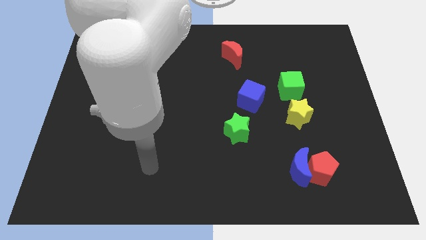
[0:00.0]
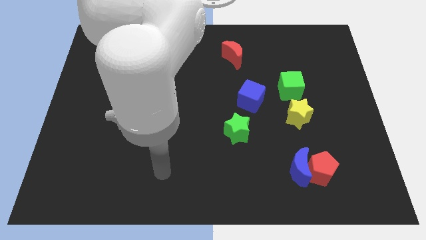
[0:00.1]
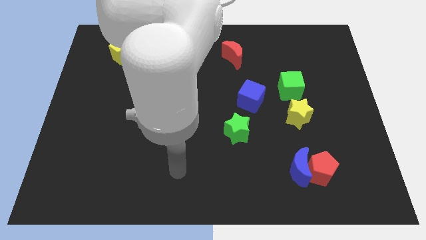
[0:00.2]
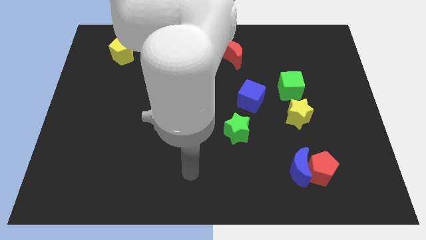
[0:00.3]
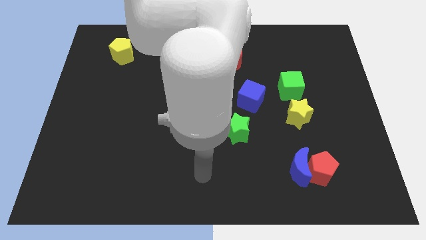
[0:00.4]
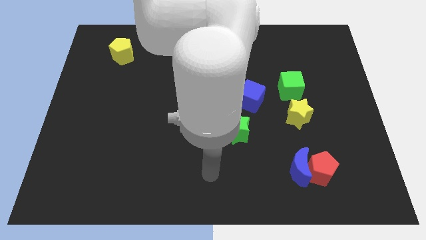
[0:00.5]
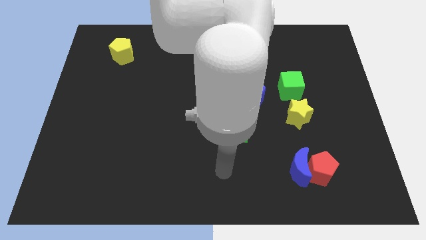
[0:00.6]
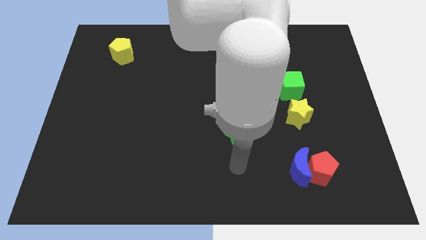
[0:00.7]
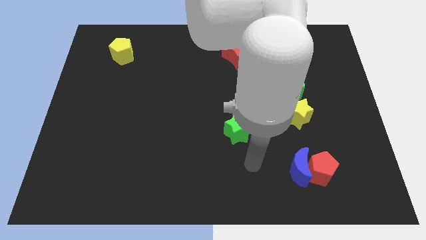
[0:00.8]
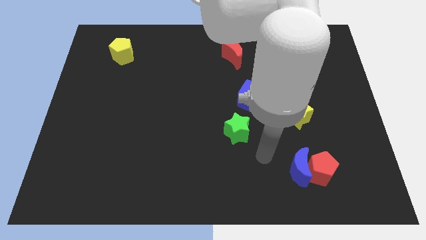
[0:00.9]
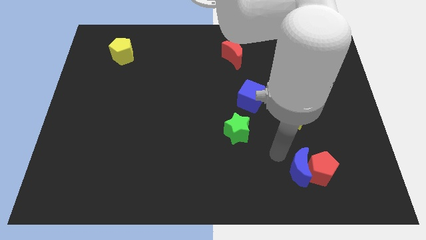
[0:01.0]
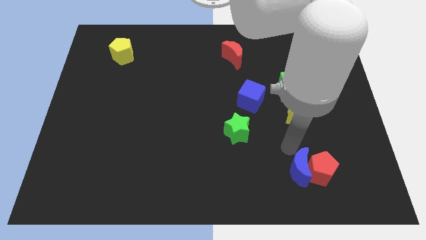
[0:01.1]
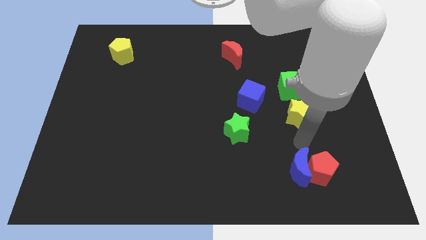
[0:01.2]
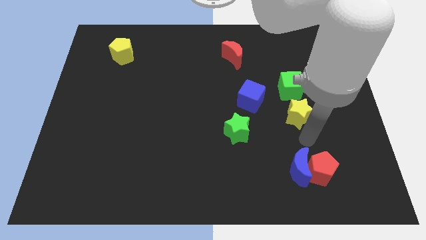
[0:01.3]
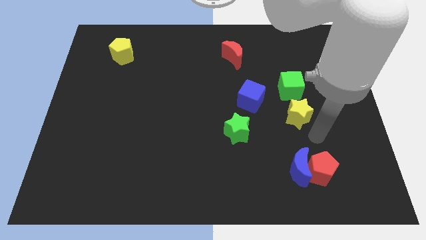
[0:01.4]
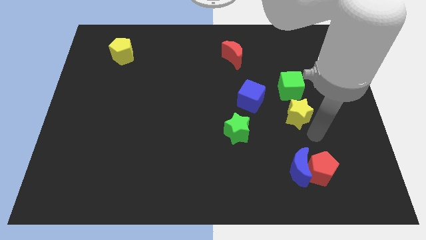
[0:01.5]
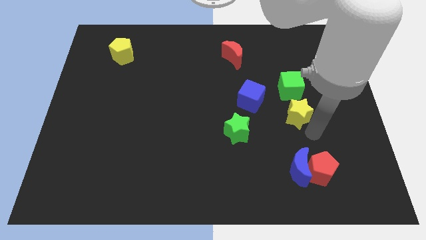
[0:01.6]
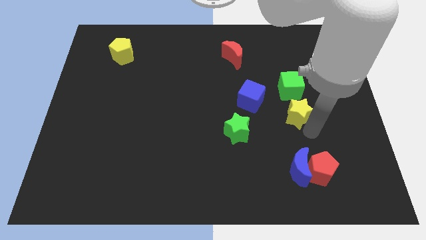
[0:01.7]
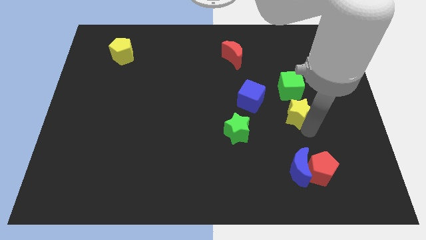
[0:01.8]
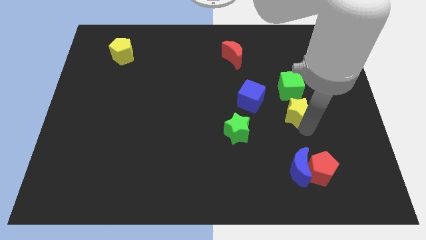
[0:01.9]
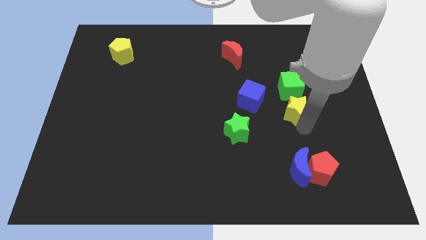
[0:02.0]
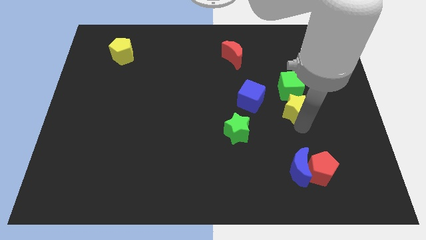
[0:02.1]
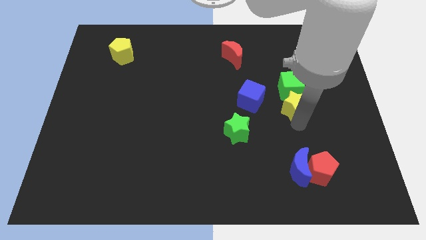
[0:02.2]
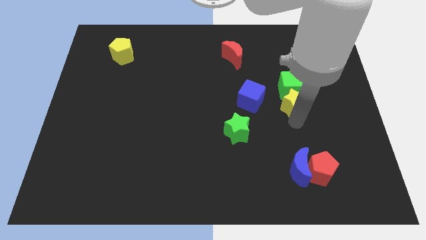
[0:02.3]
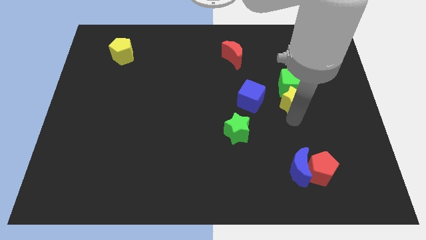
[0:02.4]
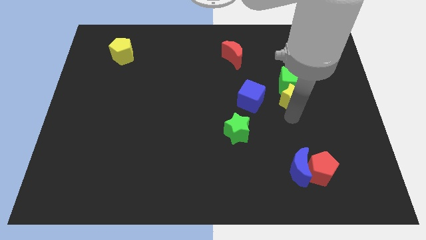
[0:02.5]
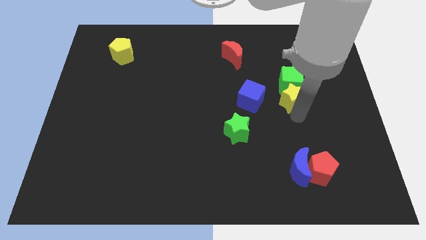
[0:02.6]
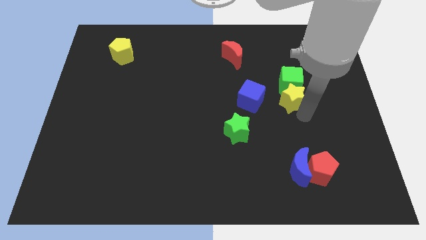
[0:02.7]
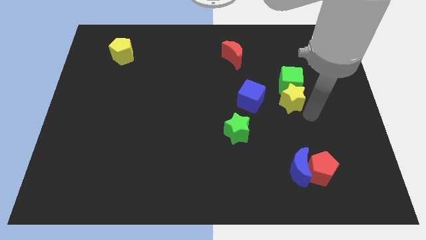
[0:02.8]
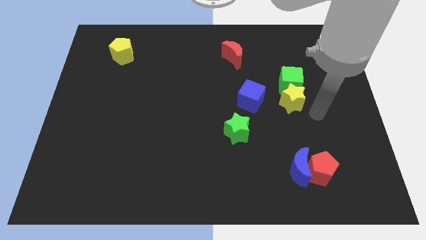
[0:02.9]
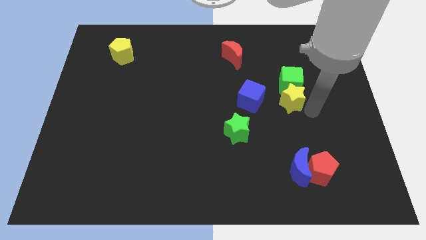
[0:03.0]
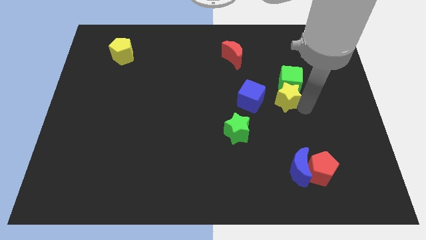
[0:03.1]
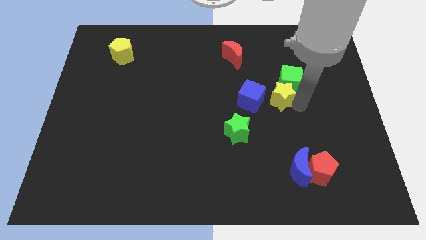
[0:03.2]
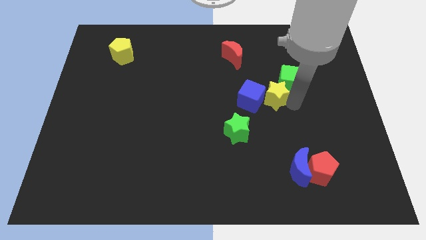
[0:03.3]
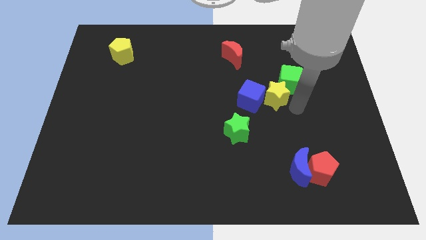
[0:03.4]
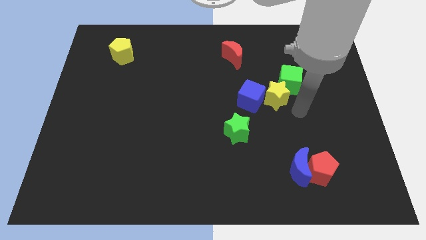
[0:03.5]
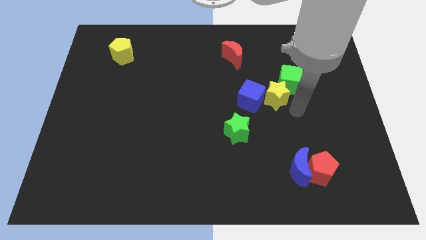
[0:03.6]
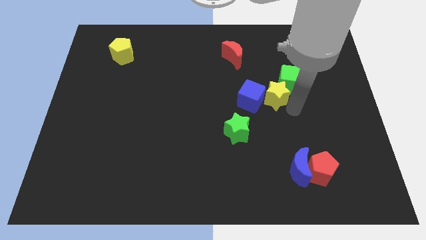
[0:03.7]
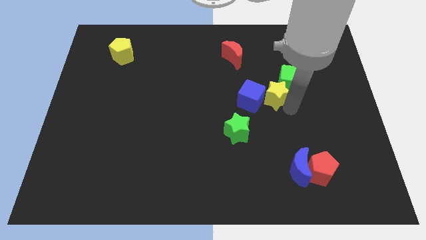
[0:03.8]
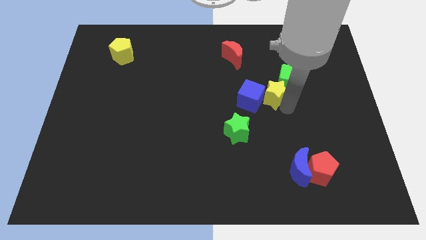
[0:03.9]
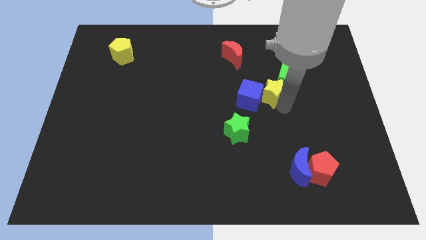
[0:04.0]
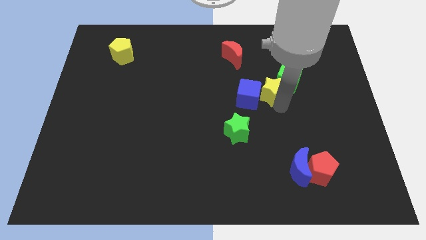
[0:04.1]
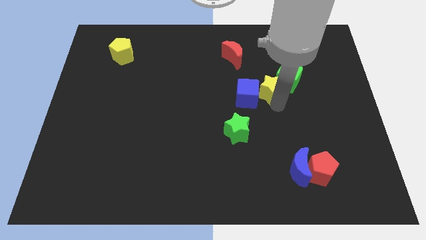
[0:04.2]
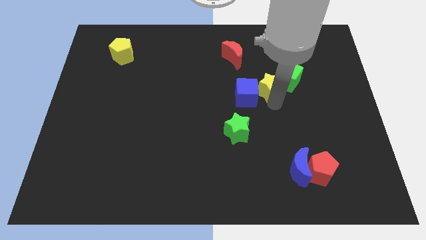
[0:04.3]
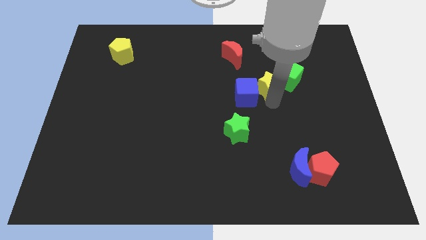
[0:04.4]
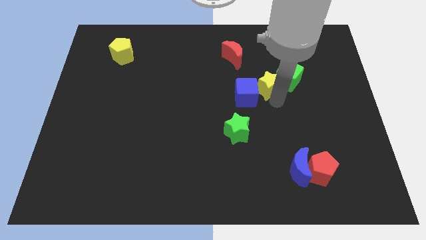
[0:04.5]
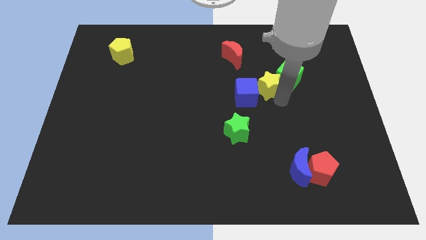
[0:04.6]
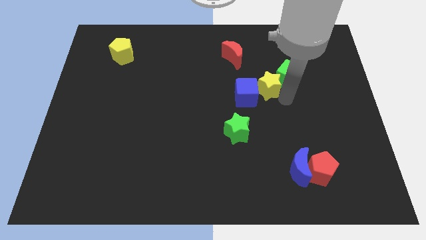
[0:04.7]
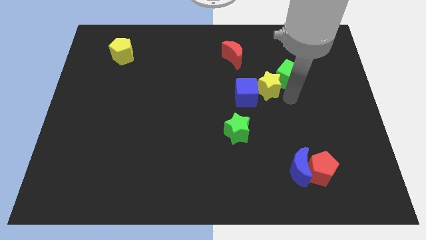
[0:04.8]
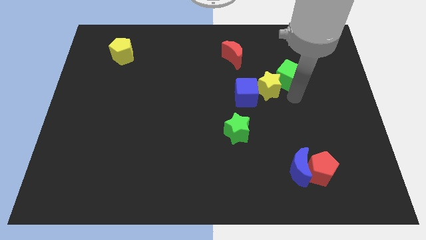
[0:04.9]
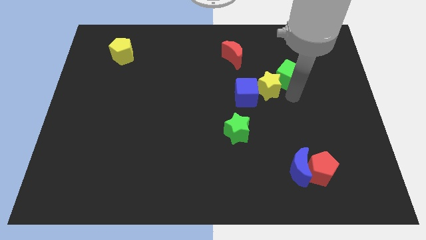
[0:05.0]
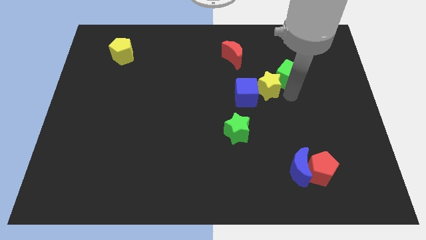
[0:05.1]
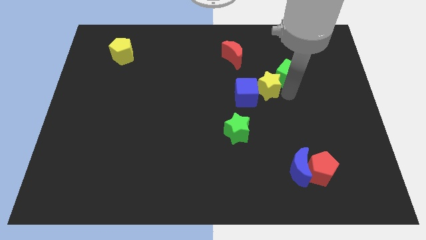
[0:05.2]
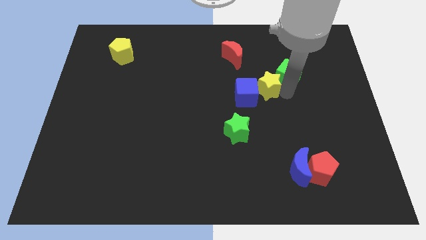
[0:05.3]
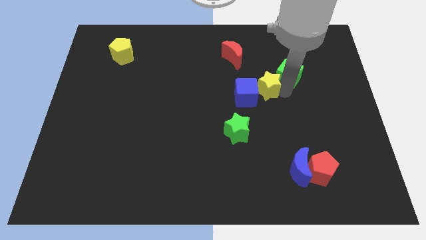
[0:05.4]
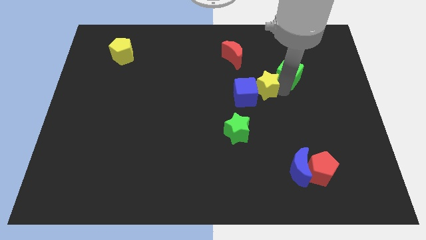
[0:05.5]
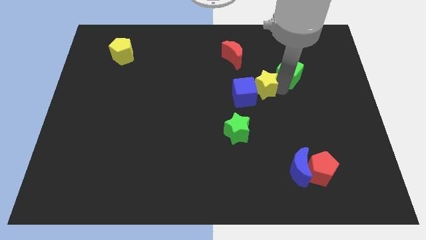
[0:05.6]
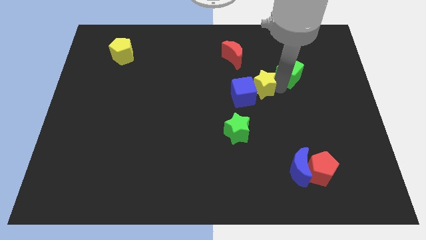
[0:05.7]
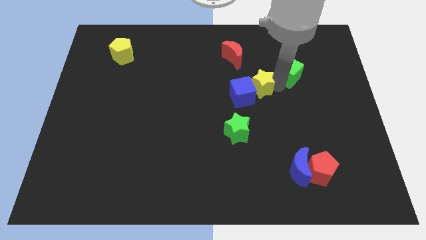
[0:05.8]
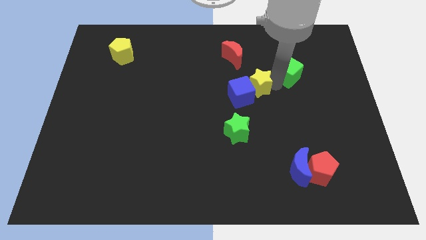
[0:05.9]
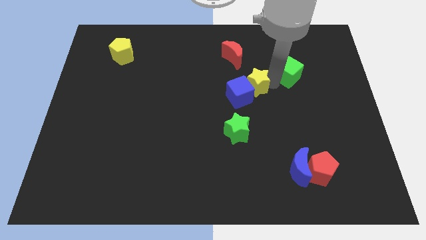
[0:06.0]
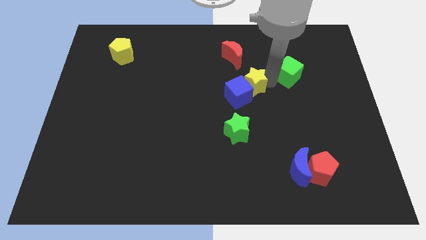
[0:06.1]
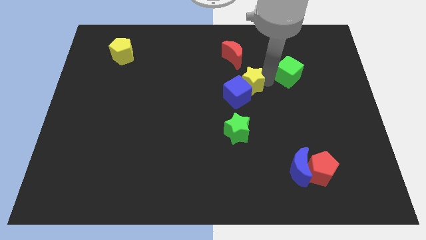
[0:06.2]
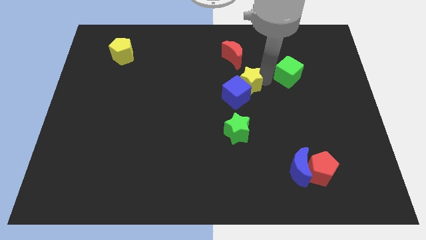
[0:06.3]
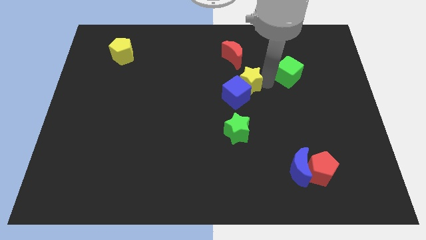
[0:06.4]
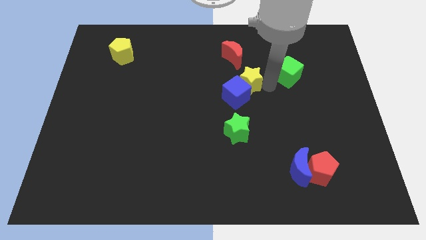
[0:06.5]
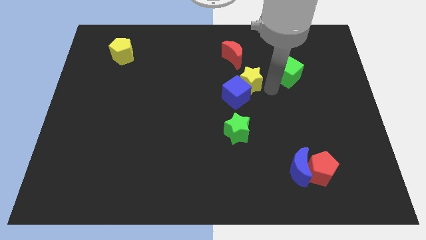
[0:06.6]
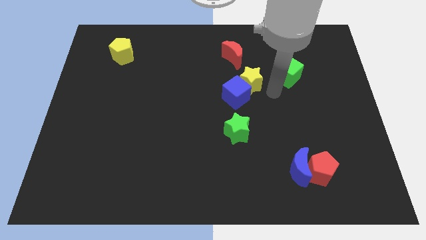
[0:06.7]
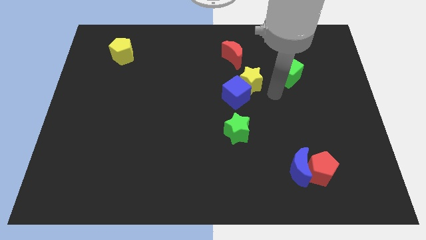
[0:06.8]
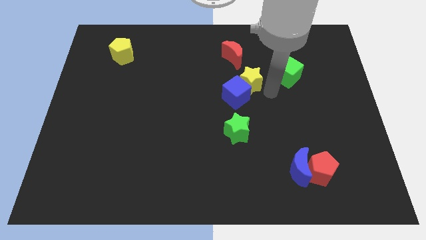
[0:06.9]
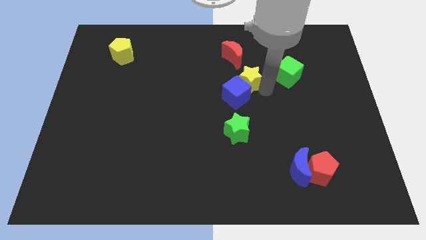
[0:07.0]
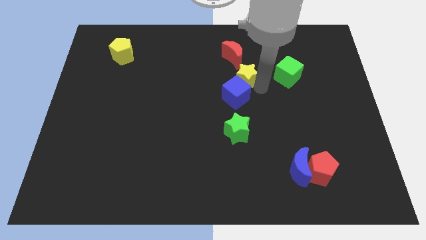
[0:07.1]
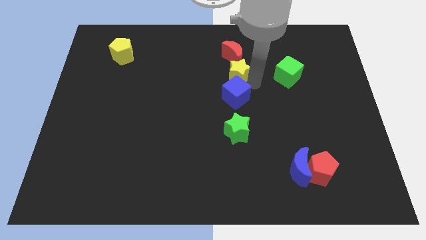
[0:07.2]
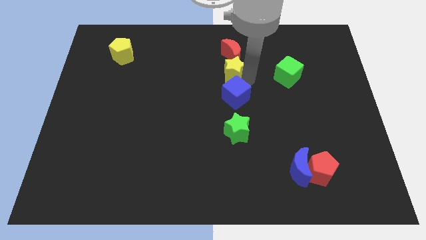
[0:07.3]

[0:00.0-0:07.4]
put the yellow star to the bottom left side of the red moon
